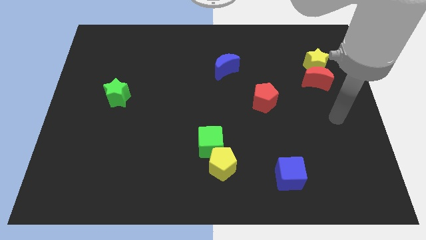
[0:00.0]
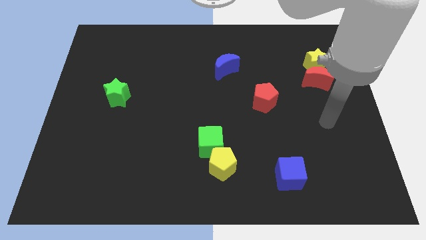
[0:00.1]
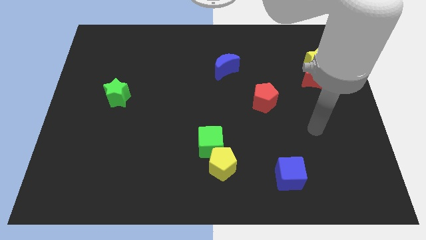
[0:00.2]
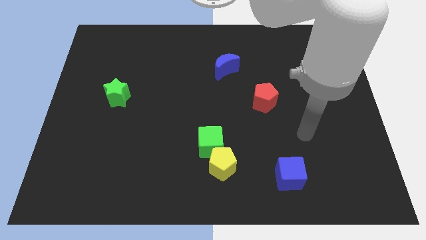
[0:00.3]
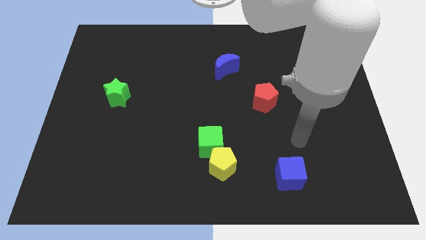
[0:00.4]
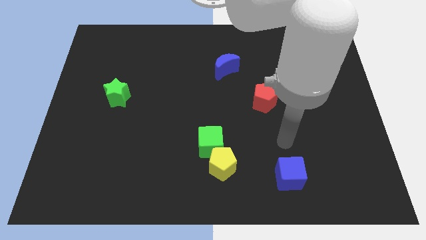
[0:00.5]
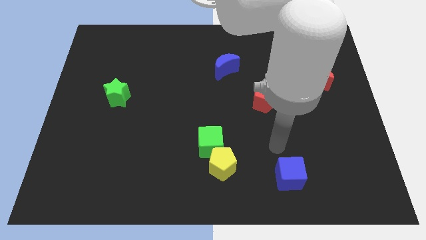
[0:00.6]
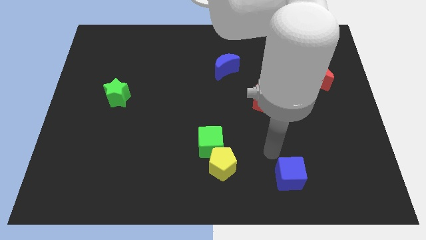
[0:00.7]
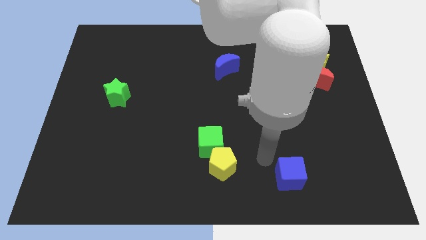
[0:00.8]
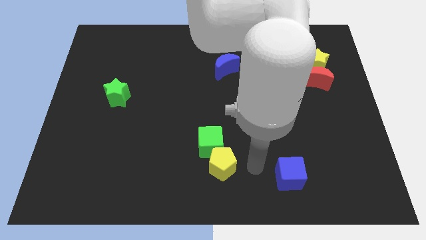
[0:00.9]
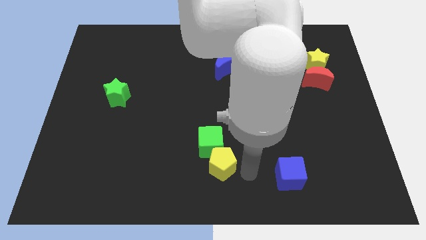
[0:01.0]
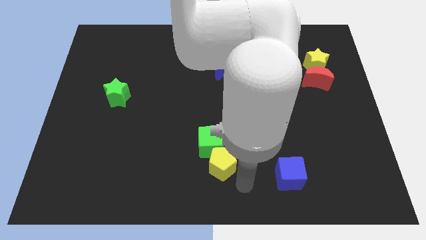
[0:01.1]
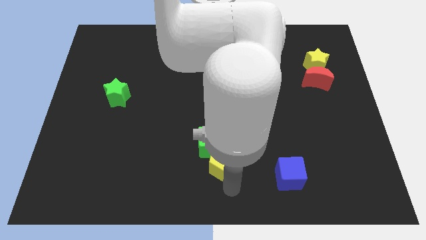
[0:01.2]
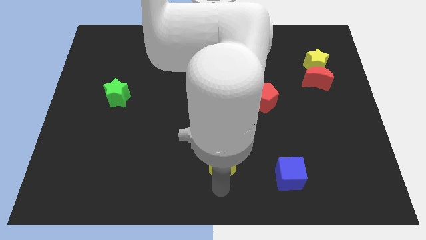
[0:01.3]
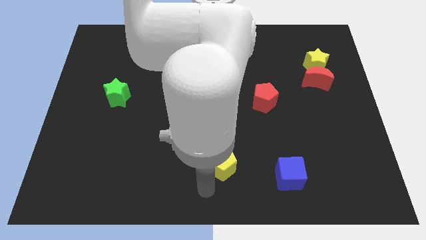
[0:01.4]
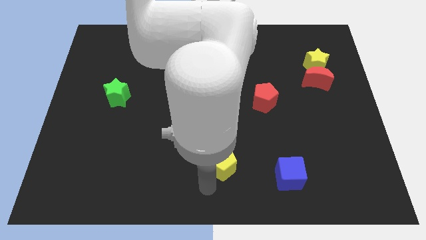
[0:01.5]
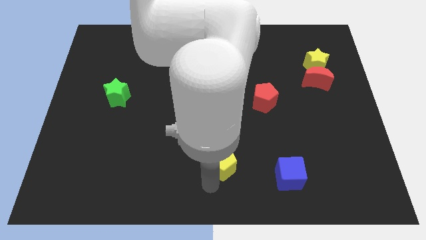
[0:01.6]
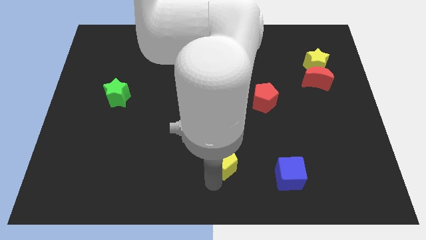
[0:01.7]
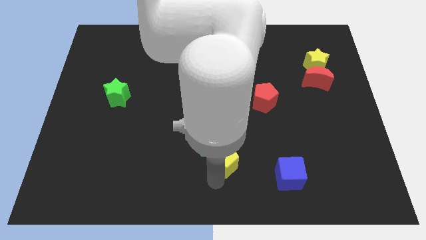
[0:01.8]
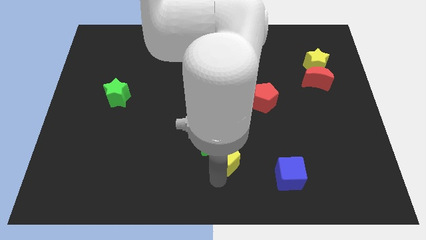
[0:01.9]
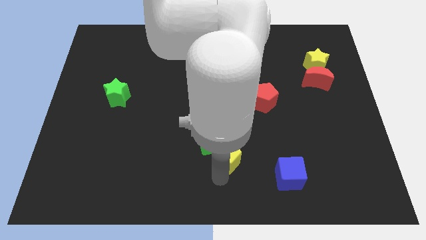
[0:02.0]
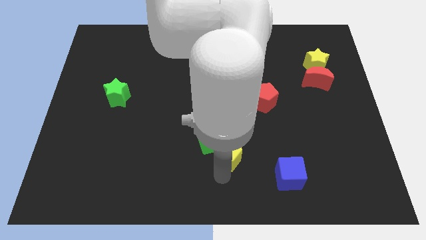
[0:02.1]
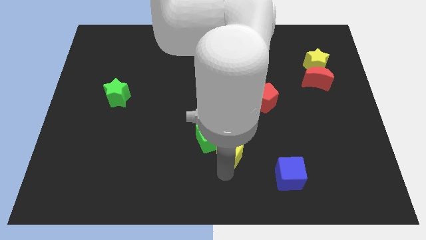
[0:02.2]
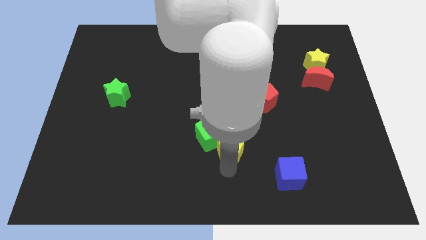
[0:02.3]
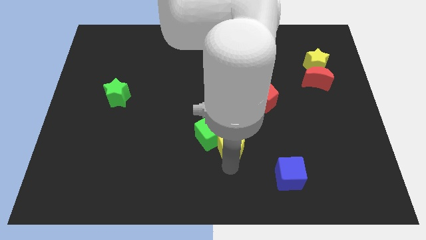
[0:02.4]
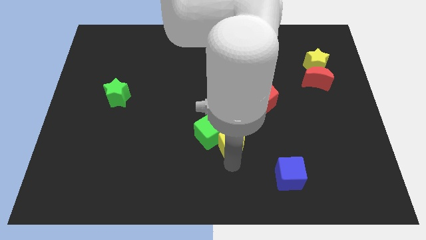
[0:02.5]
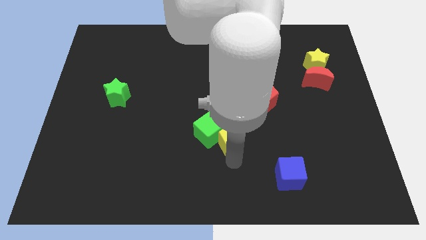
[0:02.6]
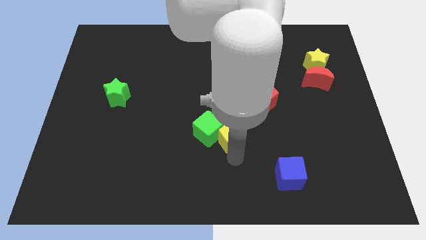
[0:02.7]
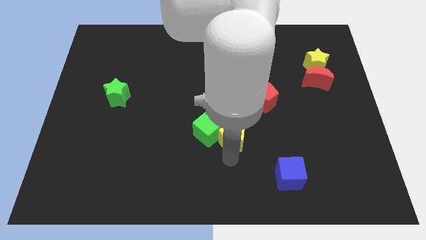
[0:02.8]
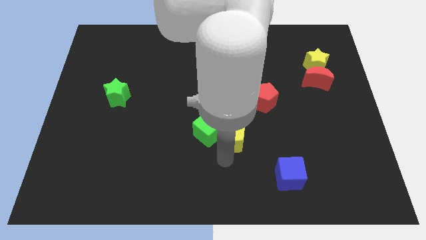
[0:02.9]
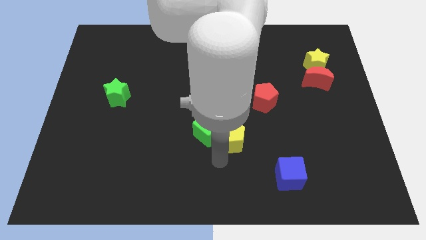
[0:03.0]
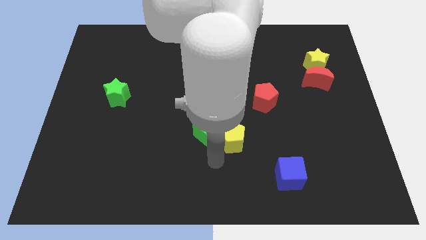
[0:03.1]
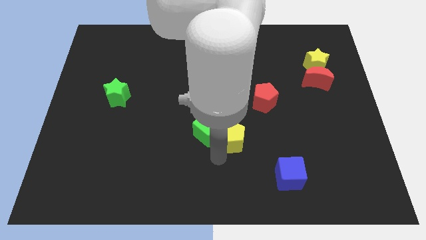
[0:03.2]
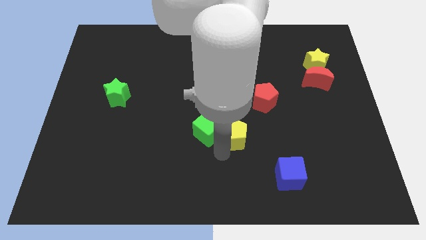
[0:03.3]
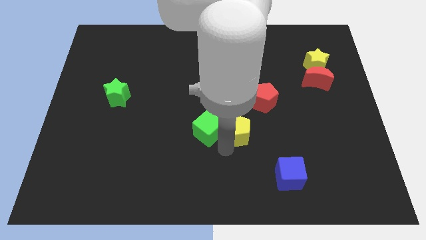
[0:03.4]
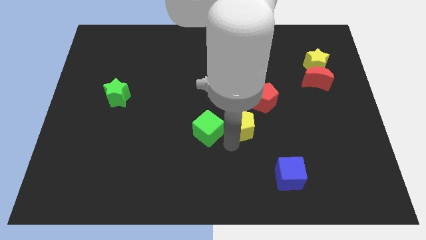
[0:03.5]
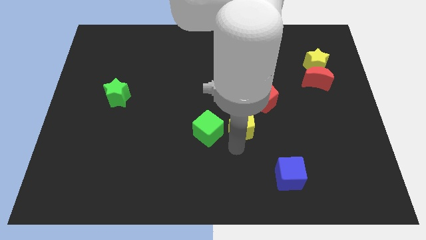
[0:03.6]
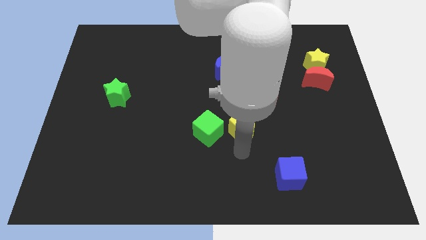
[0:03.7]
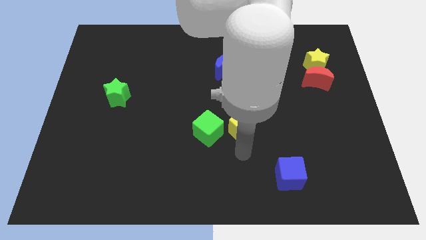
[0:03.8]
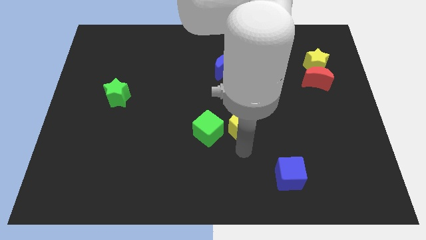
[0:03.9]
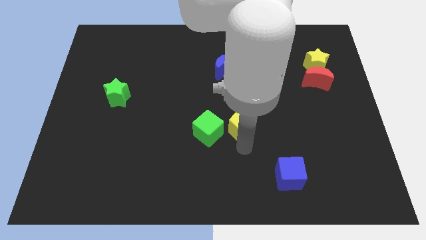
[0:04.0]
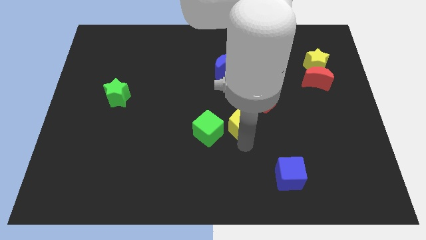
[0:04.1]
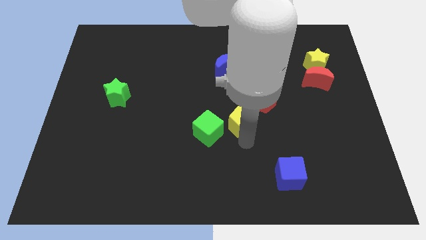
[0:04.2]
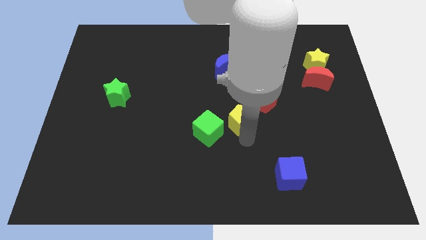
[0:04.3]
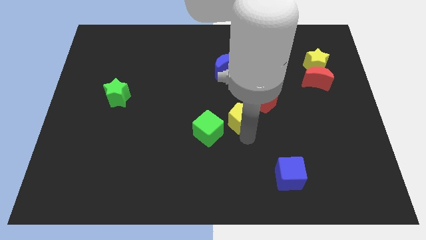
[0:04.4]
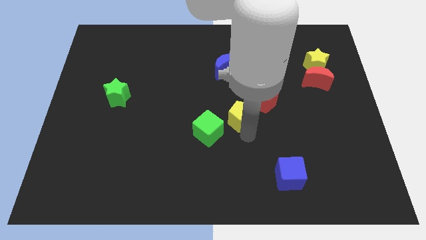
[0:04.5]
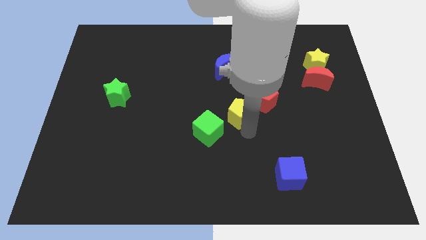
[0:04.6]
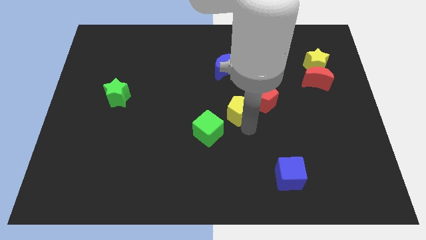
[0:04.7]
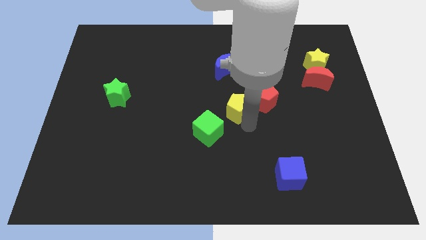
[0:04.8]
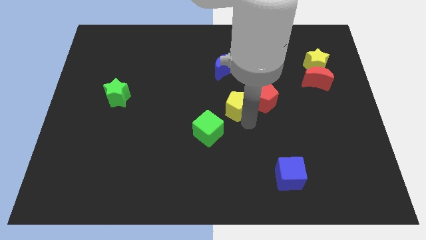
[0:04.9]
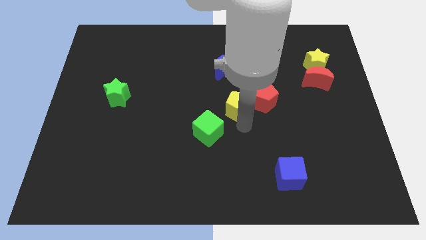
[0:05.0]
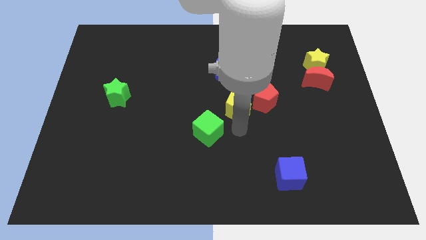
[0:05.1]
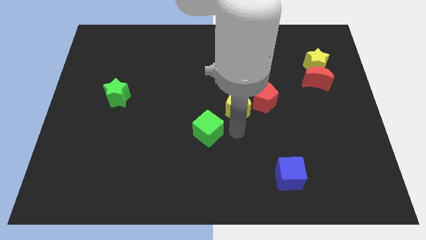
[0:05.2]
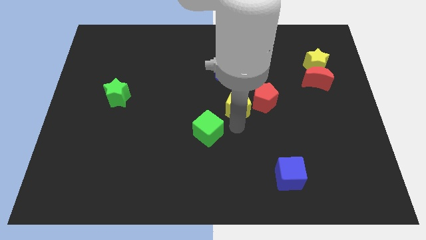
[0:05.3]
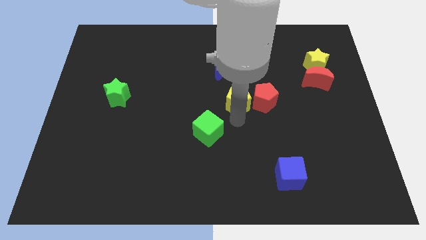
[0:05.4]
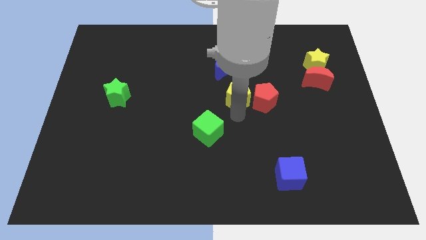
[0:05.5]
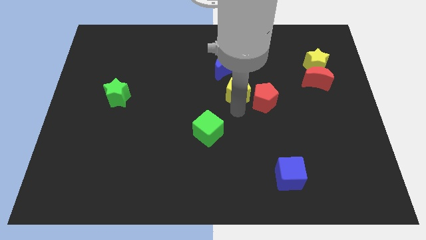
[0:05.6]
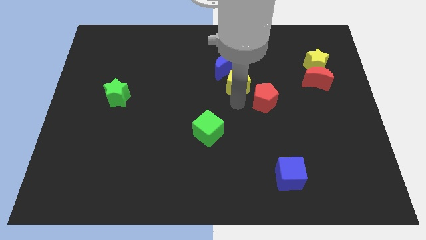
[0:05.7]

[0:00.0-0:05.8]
move the yellow pentagon upwards

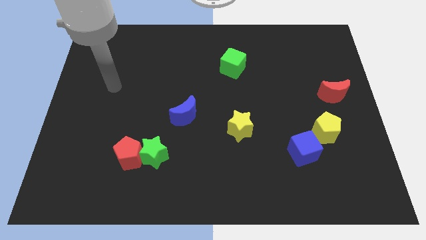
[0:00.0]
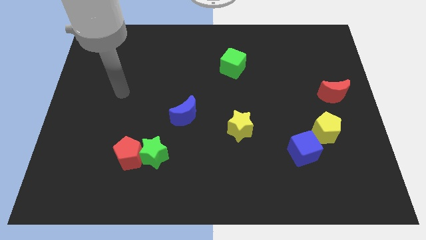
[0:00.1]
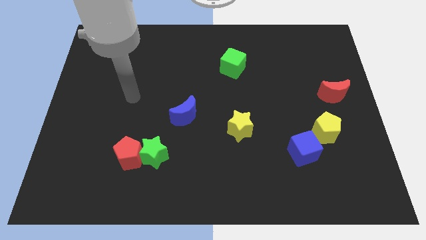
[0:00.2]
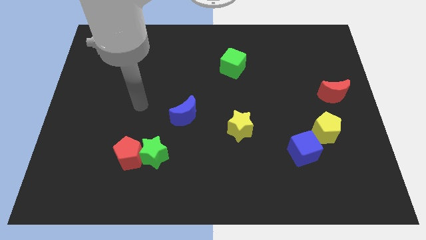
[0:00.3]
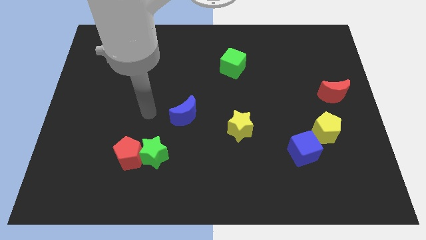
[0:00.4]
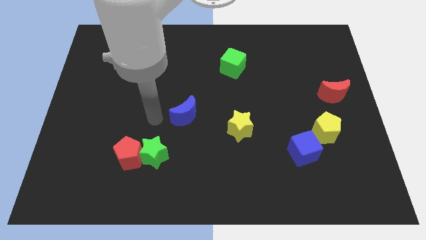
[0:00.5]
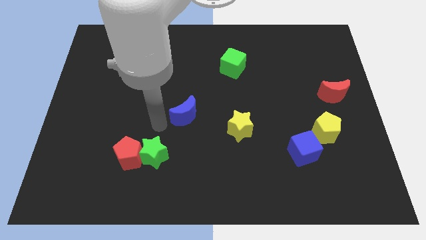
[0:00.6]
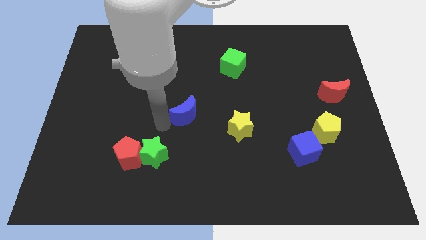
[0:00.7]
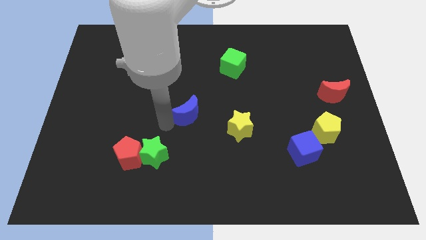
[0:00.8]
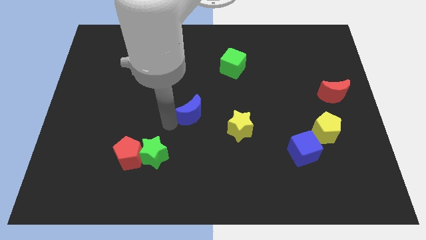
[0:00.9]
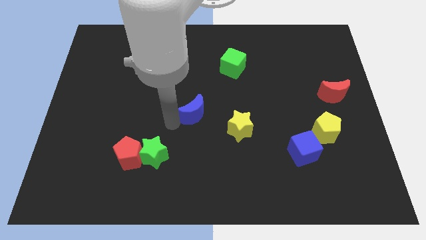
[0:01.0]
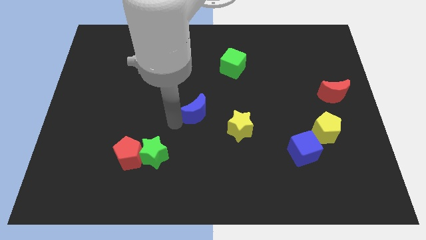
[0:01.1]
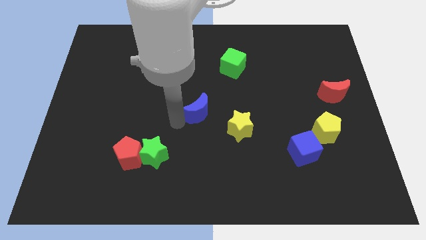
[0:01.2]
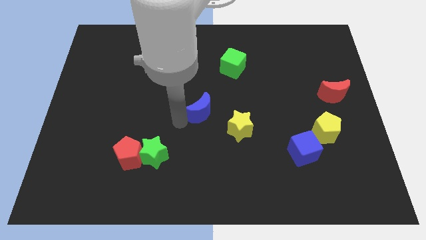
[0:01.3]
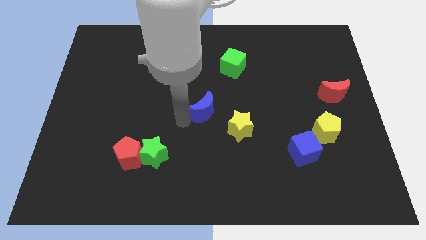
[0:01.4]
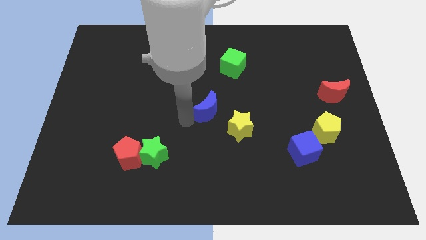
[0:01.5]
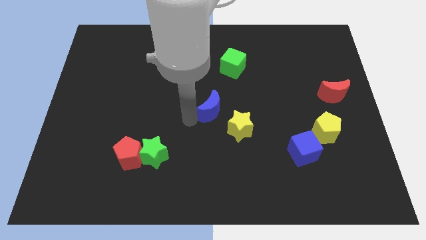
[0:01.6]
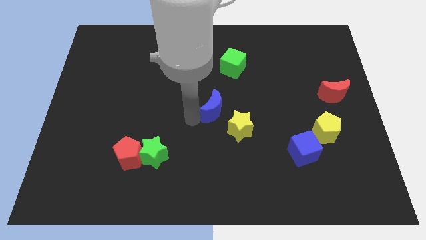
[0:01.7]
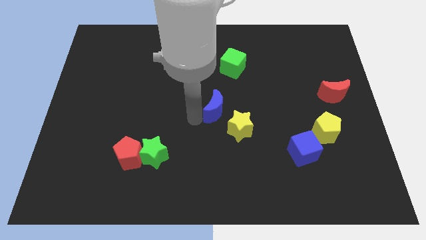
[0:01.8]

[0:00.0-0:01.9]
push the blue moon right somewhat

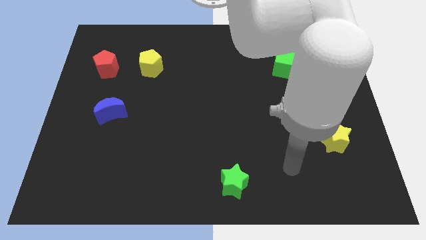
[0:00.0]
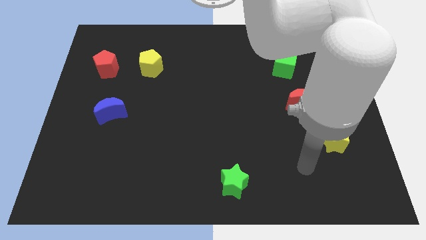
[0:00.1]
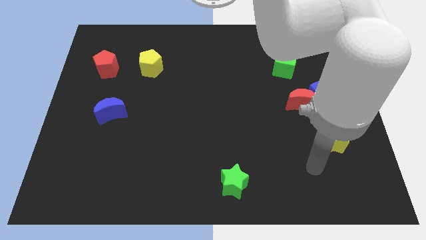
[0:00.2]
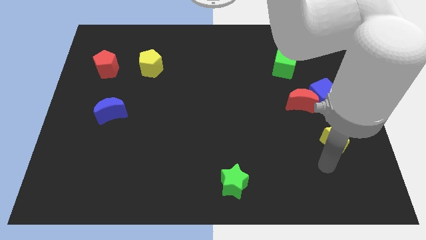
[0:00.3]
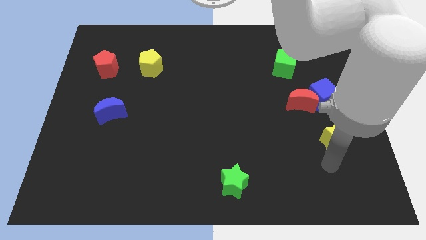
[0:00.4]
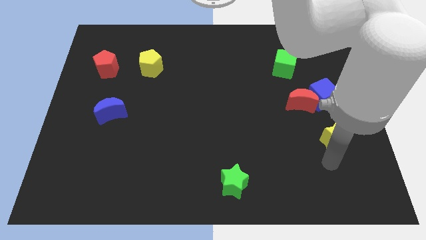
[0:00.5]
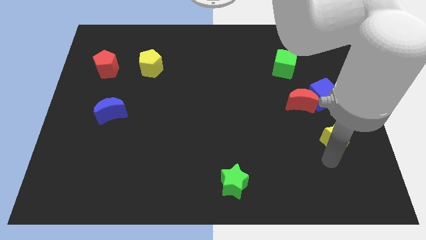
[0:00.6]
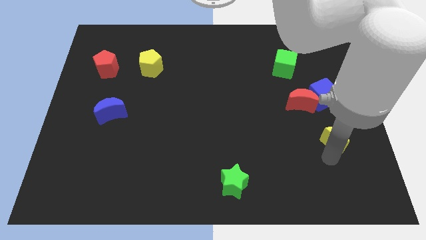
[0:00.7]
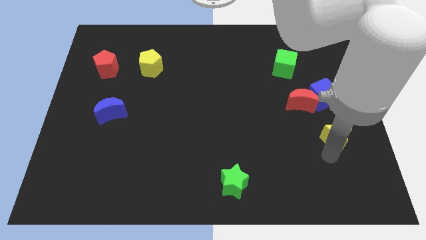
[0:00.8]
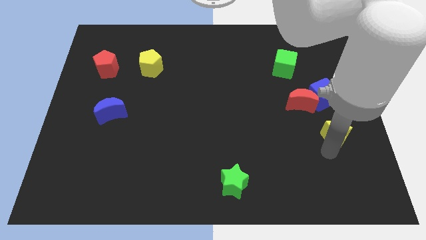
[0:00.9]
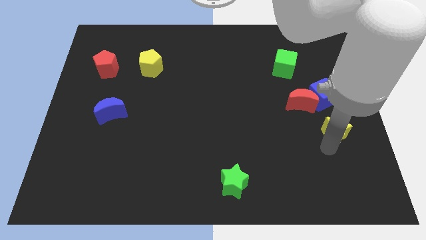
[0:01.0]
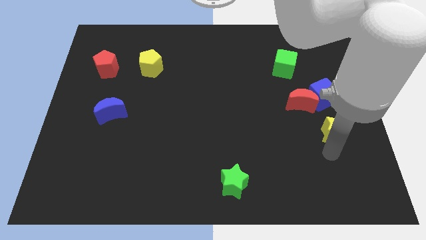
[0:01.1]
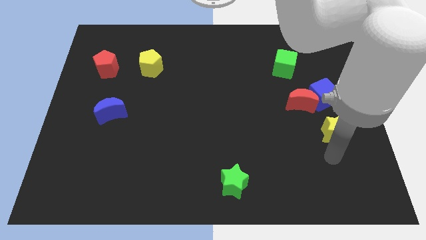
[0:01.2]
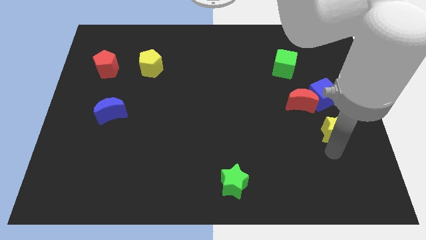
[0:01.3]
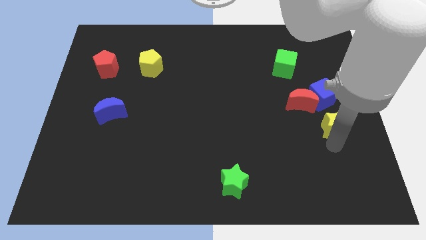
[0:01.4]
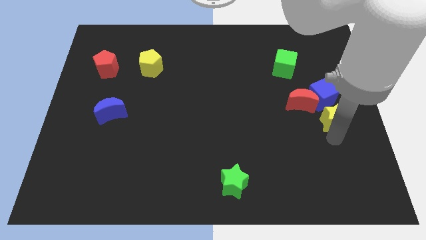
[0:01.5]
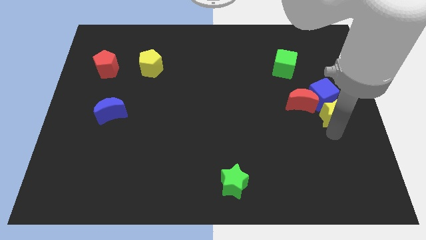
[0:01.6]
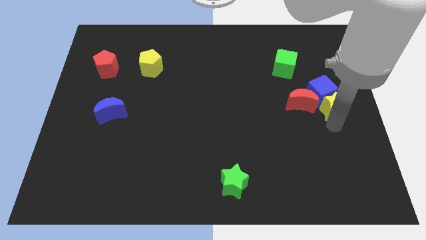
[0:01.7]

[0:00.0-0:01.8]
slightly move the yellow star upwards
